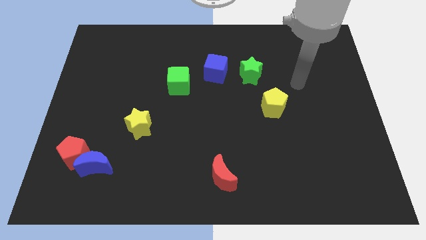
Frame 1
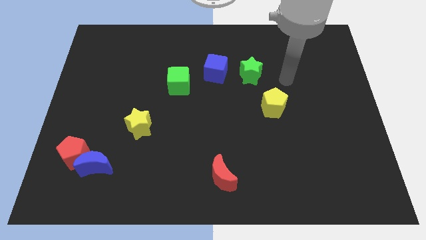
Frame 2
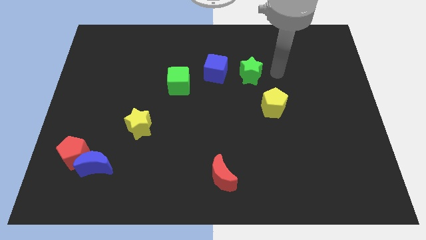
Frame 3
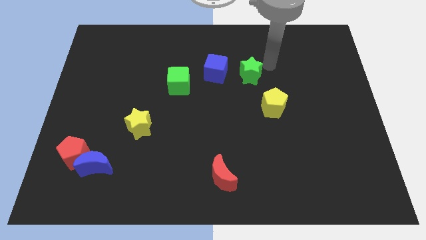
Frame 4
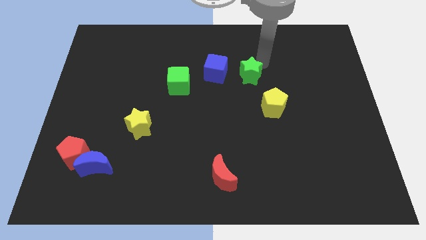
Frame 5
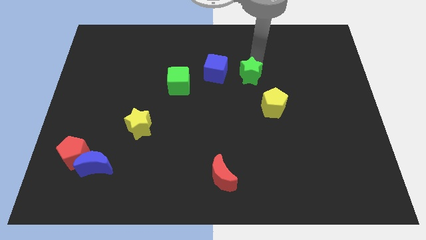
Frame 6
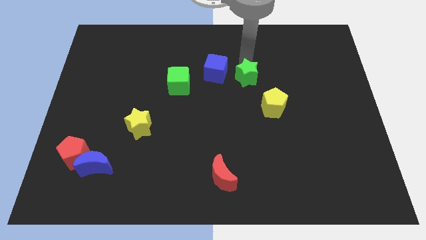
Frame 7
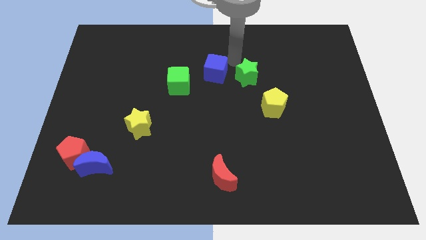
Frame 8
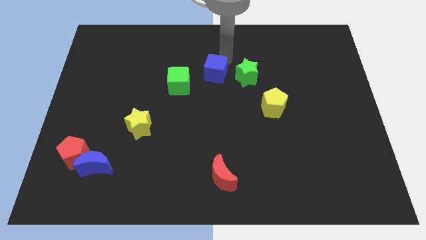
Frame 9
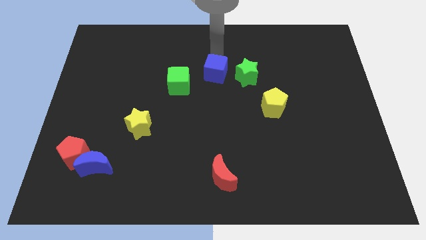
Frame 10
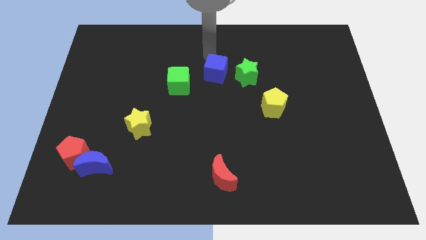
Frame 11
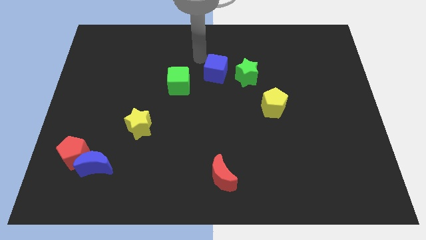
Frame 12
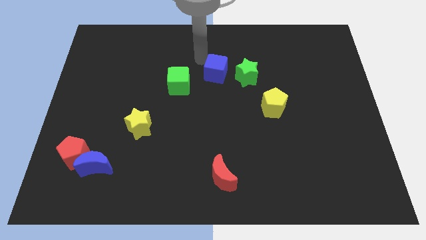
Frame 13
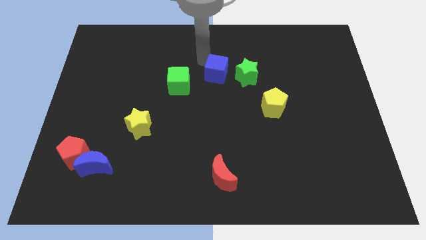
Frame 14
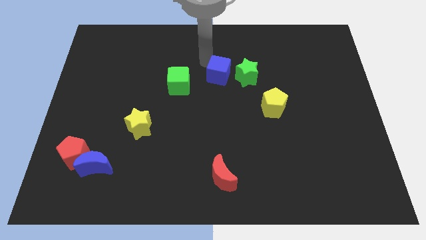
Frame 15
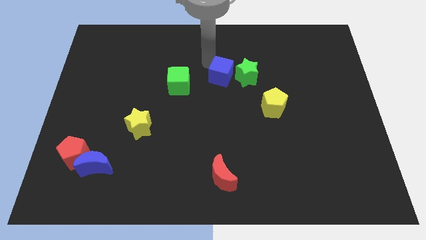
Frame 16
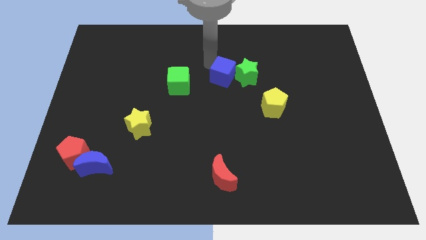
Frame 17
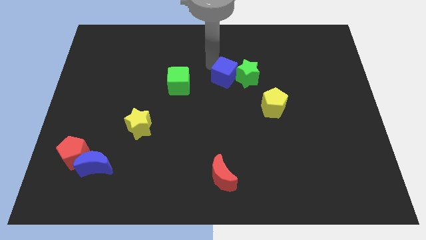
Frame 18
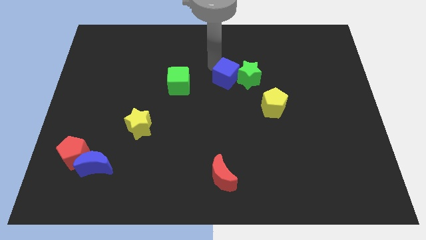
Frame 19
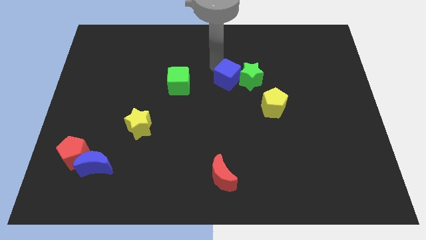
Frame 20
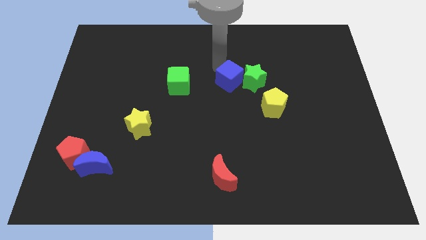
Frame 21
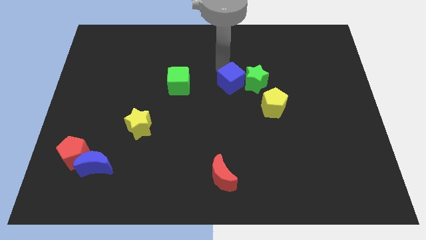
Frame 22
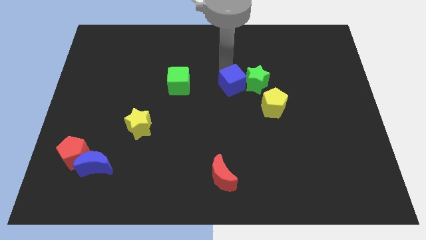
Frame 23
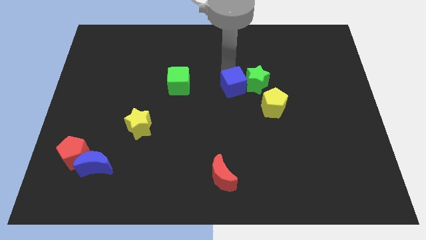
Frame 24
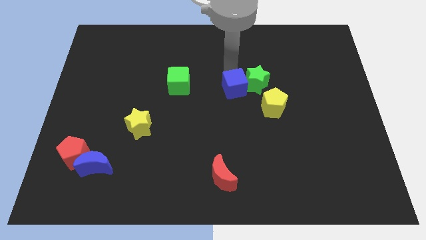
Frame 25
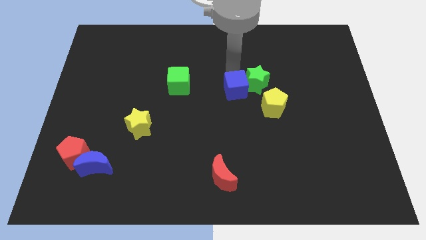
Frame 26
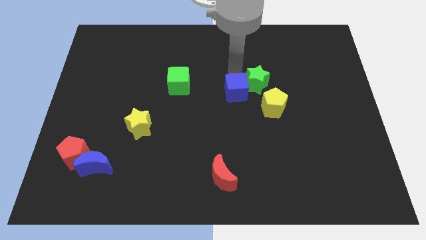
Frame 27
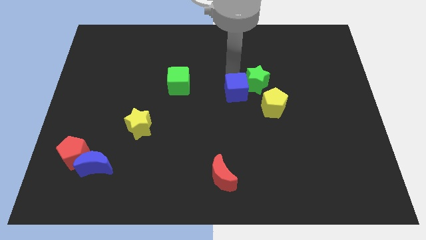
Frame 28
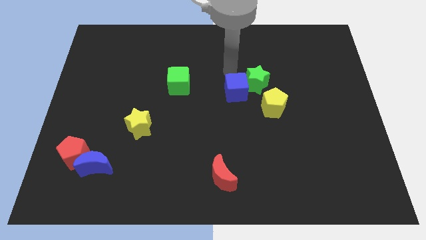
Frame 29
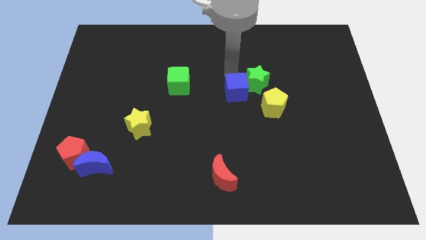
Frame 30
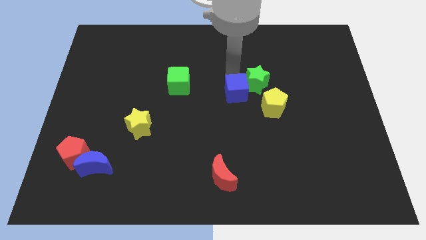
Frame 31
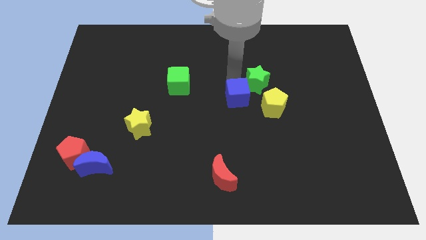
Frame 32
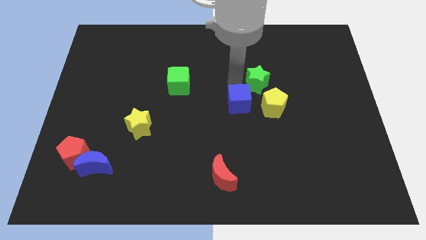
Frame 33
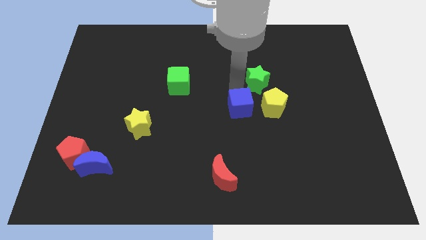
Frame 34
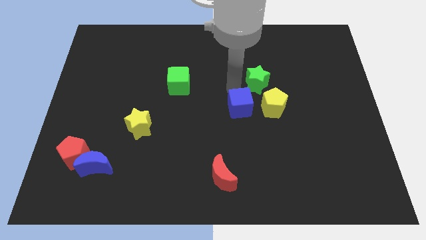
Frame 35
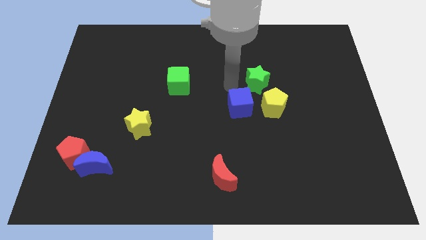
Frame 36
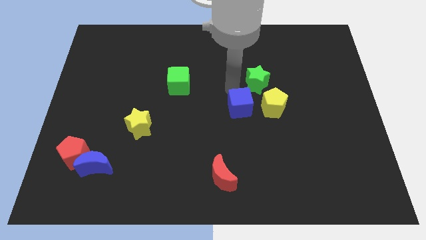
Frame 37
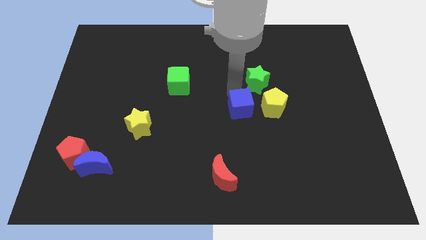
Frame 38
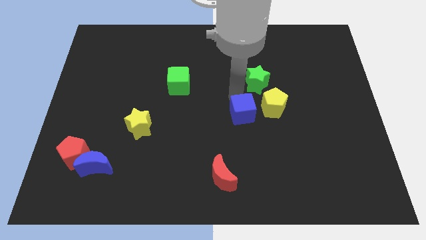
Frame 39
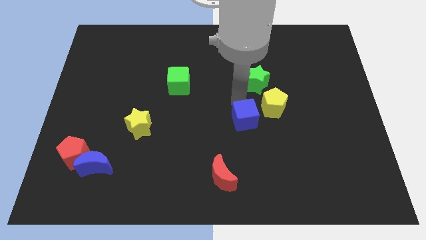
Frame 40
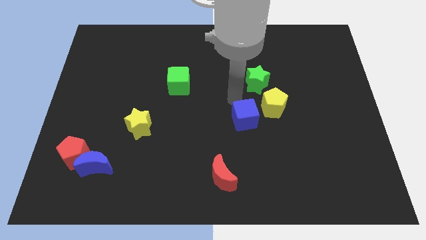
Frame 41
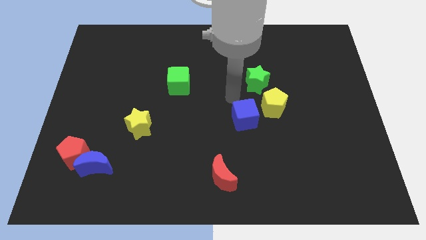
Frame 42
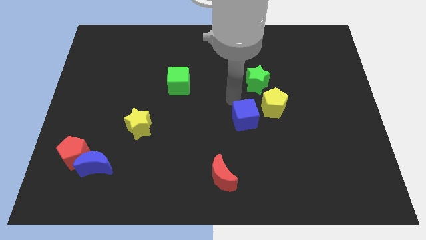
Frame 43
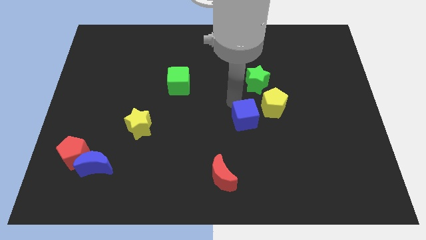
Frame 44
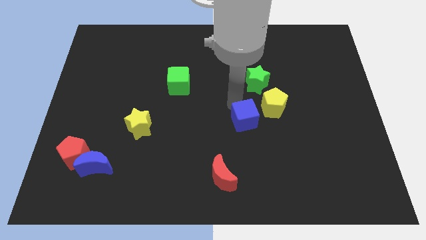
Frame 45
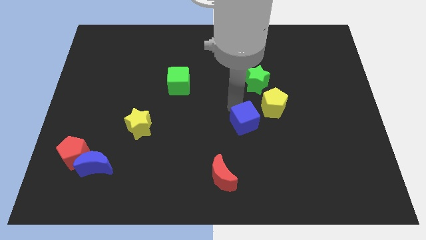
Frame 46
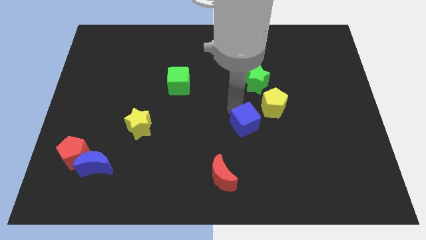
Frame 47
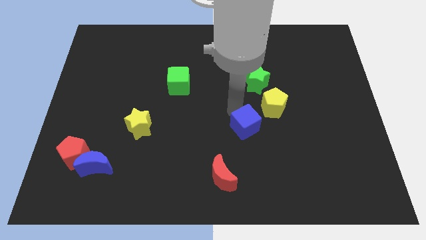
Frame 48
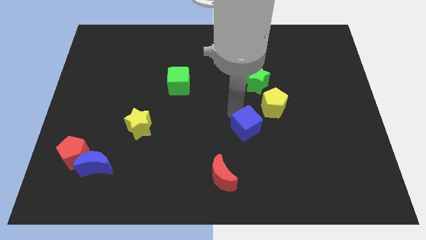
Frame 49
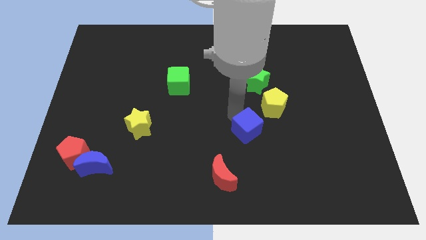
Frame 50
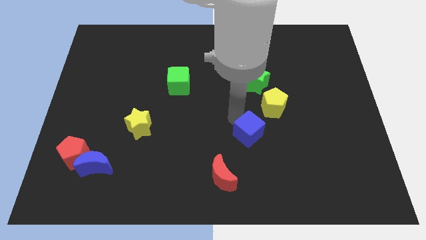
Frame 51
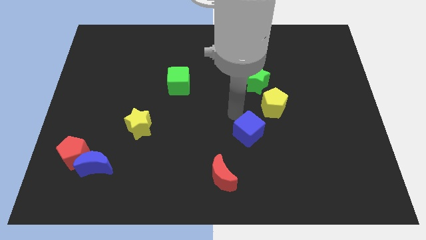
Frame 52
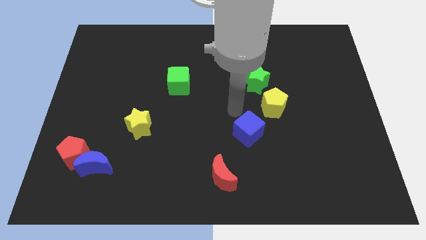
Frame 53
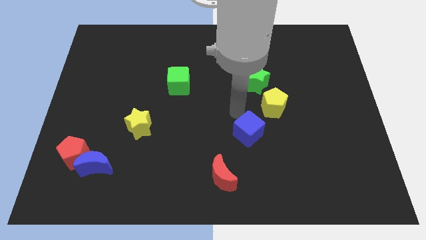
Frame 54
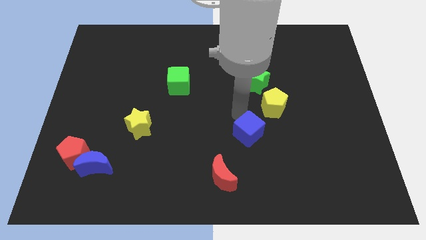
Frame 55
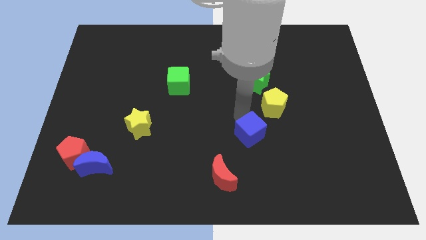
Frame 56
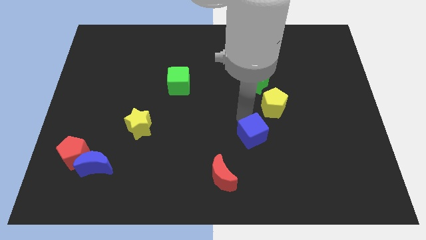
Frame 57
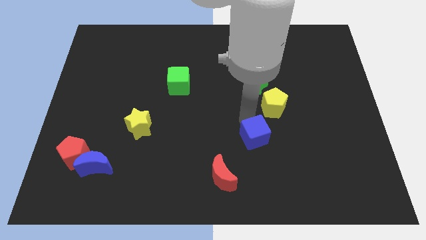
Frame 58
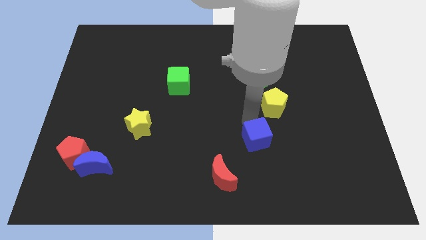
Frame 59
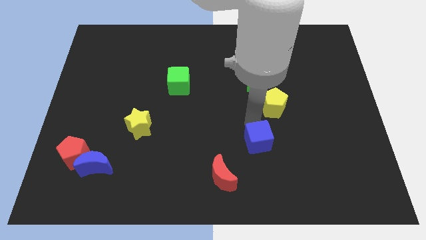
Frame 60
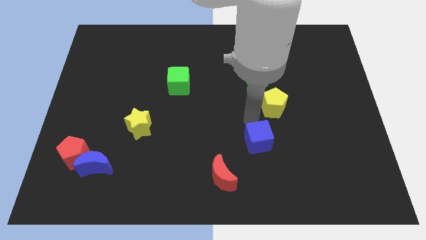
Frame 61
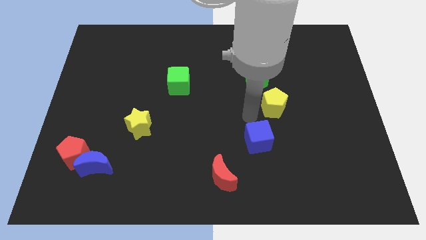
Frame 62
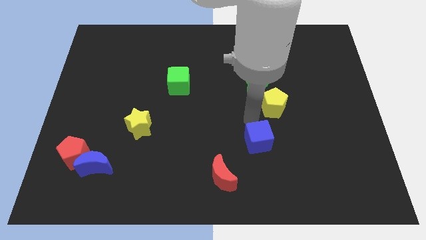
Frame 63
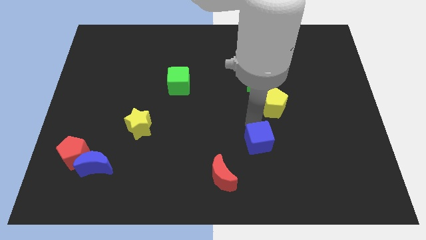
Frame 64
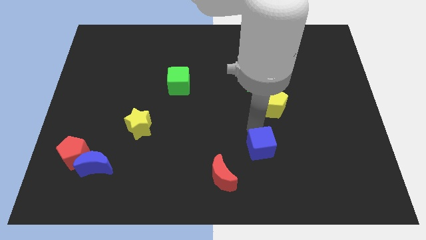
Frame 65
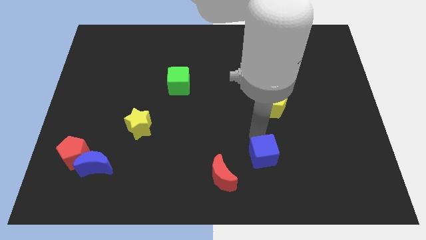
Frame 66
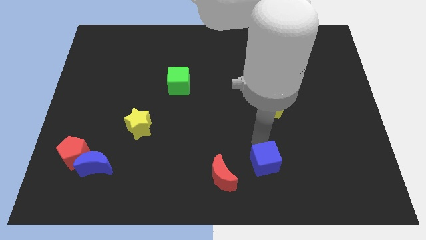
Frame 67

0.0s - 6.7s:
move the blue cube just right of the red moon

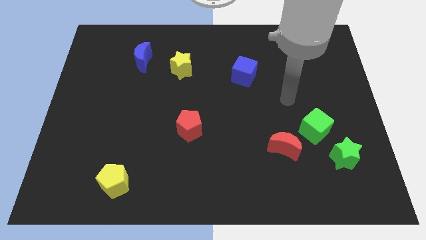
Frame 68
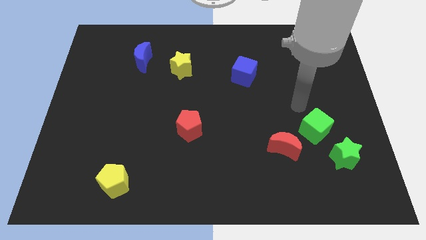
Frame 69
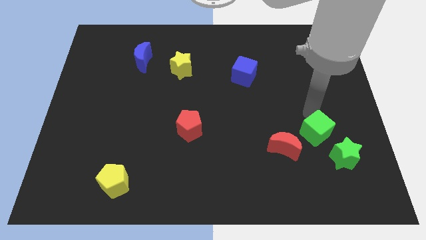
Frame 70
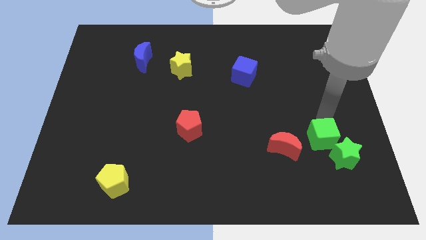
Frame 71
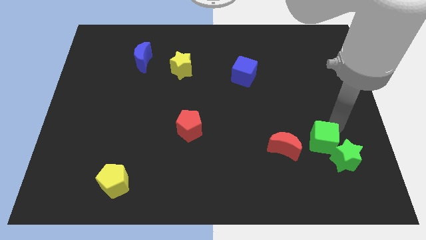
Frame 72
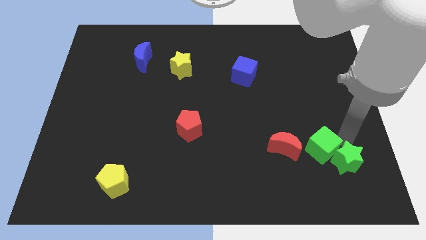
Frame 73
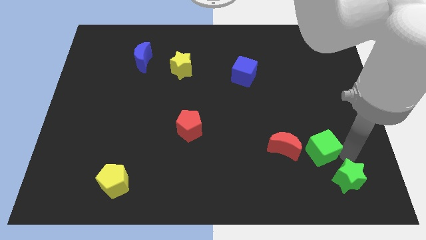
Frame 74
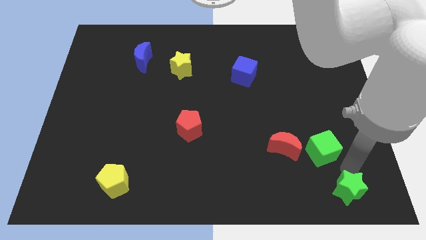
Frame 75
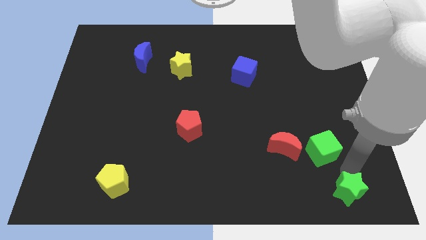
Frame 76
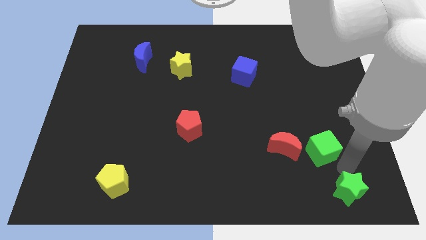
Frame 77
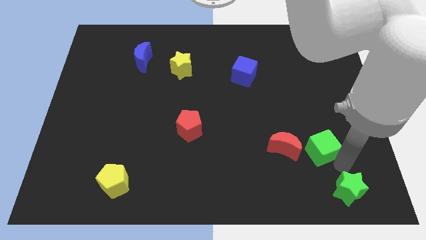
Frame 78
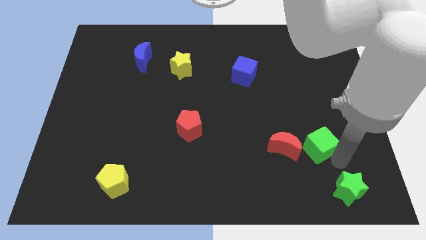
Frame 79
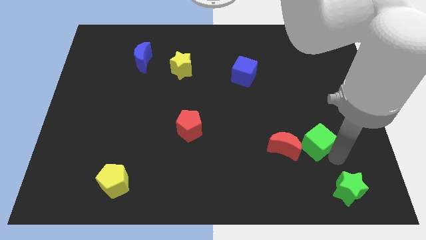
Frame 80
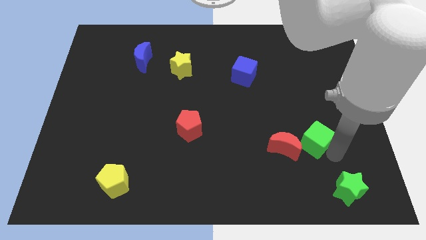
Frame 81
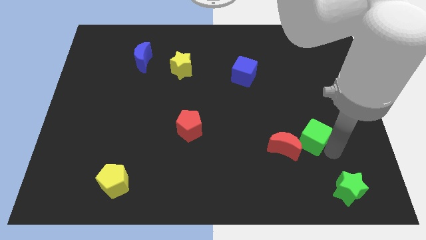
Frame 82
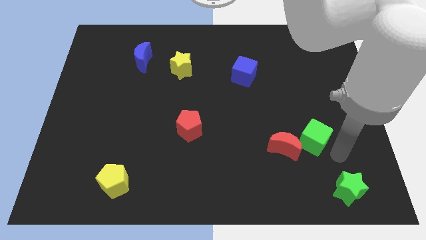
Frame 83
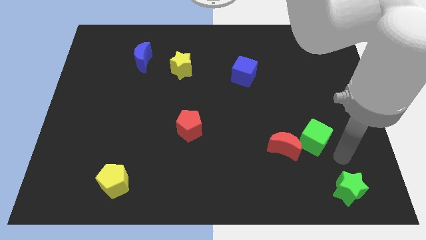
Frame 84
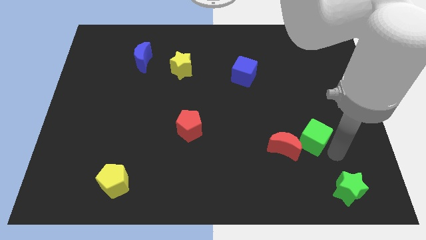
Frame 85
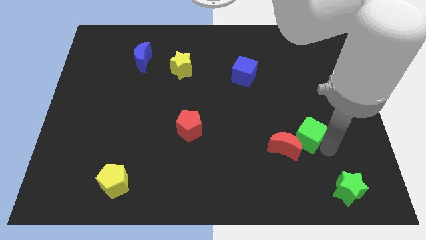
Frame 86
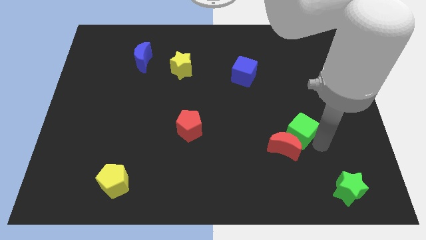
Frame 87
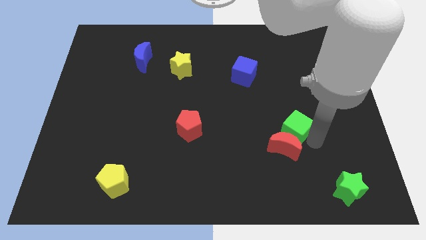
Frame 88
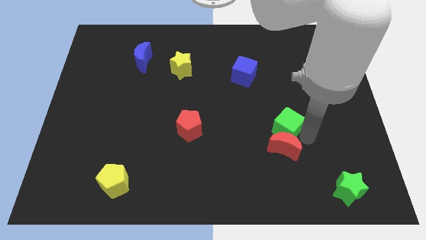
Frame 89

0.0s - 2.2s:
move the green cube to the top left side of the red moon
